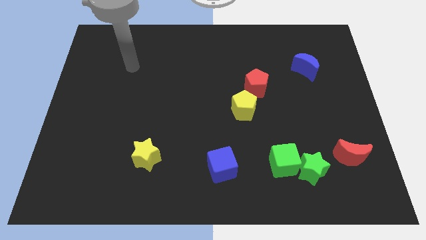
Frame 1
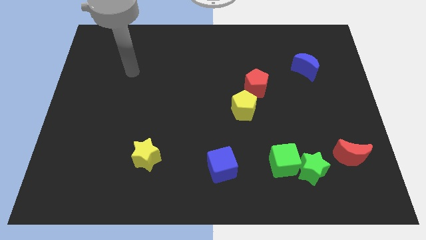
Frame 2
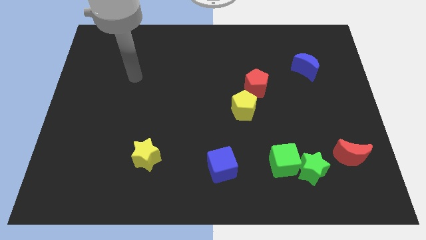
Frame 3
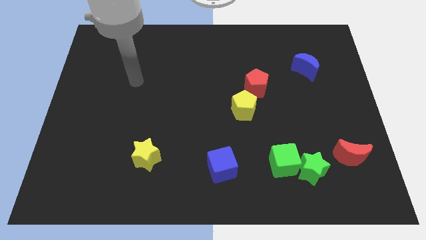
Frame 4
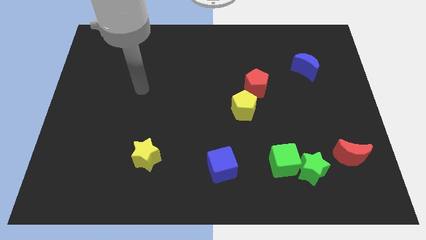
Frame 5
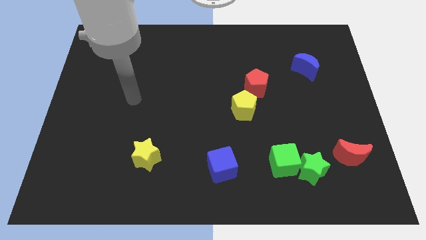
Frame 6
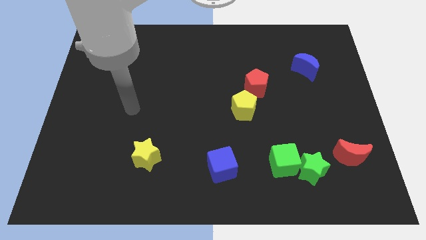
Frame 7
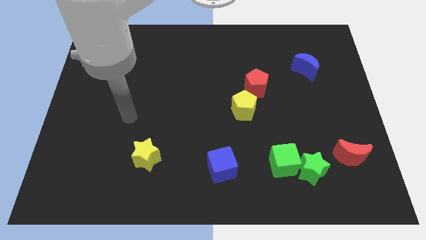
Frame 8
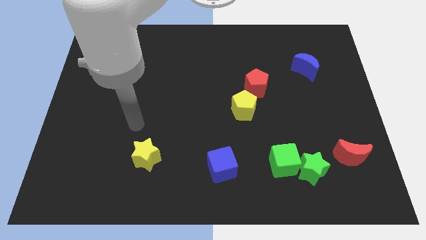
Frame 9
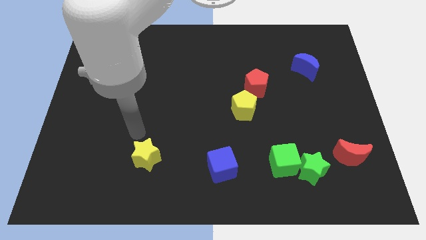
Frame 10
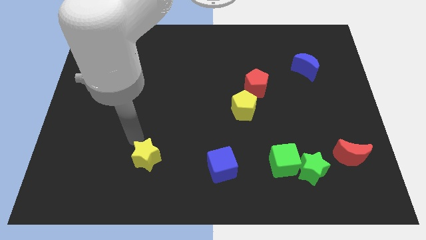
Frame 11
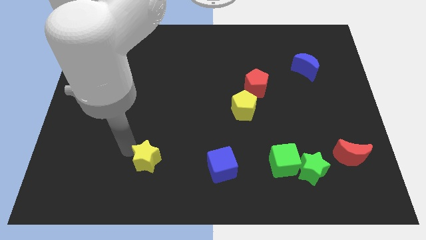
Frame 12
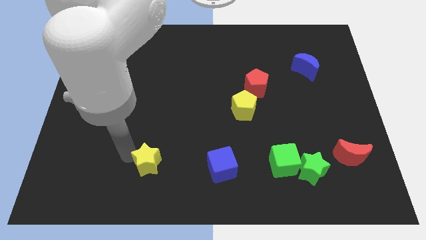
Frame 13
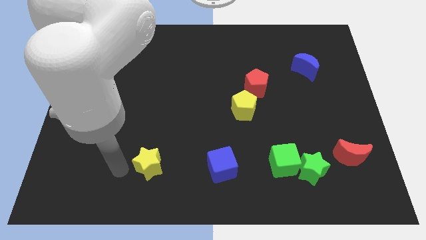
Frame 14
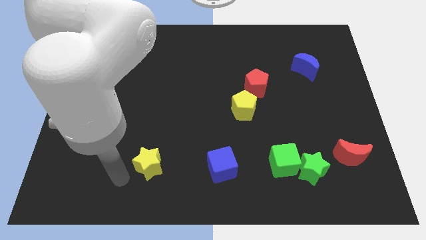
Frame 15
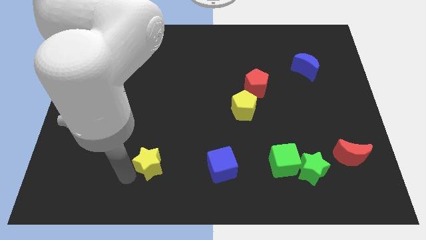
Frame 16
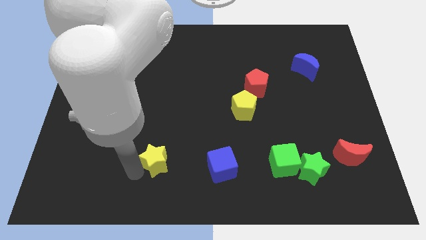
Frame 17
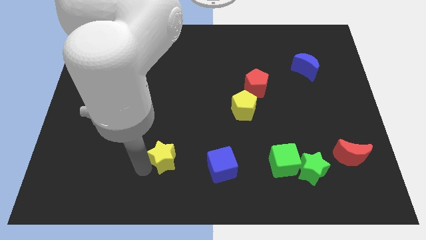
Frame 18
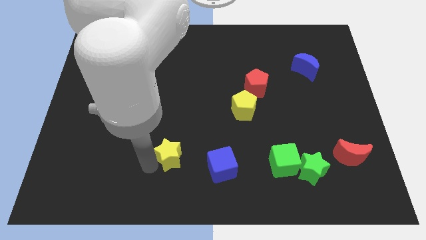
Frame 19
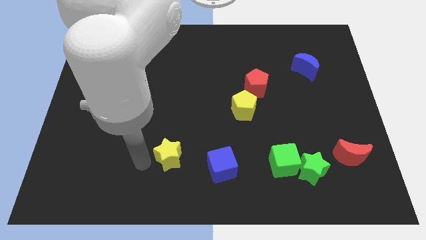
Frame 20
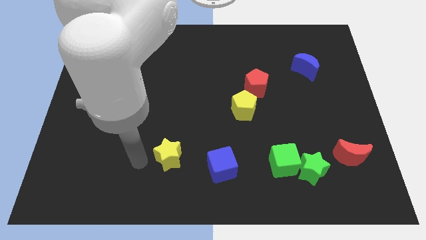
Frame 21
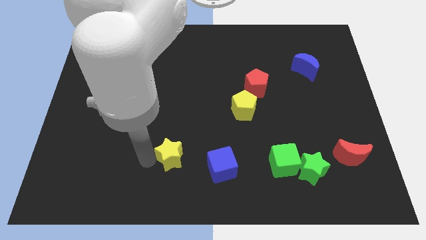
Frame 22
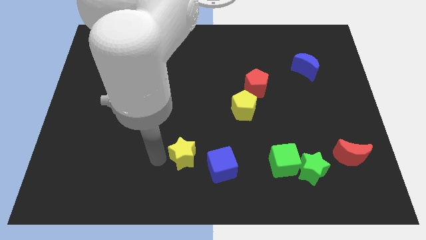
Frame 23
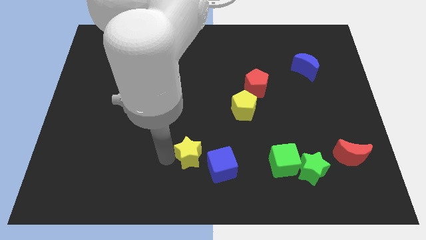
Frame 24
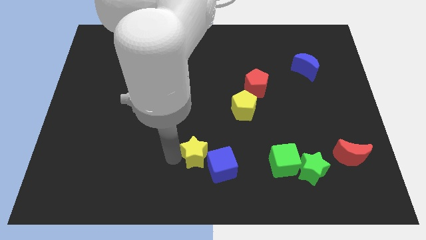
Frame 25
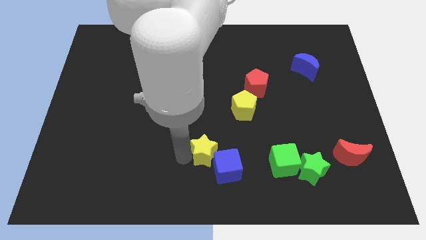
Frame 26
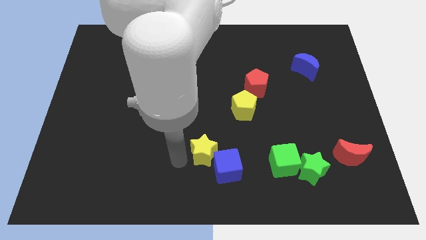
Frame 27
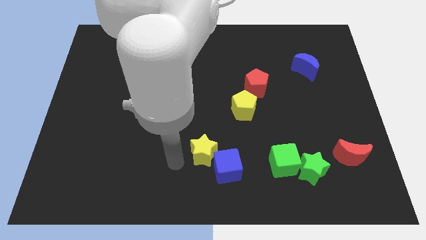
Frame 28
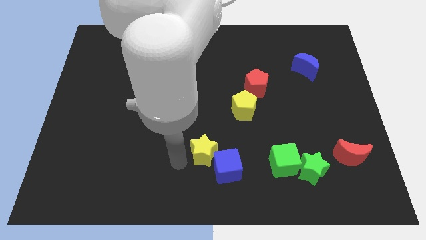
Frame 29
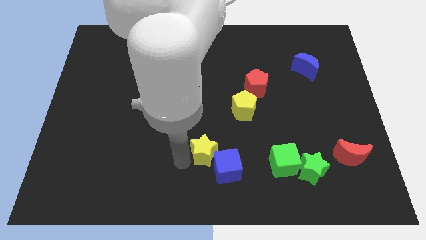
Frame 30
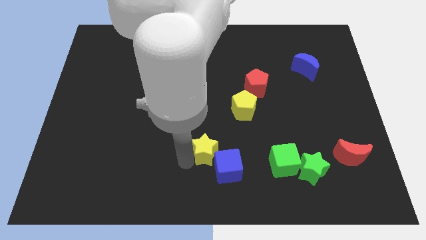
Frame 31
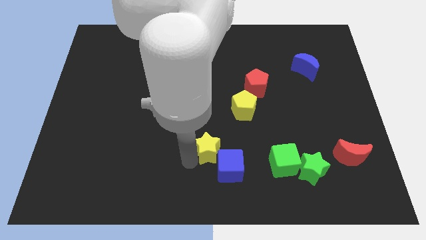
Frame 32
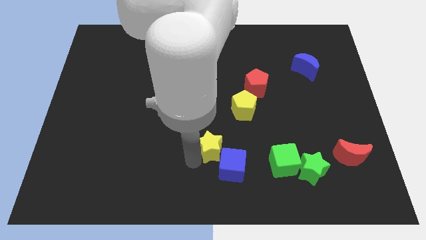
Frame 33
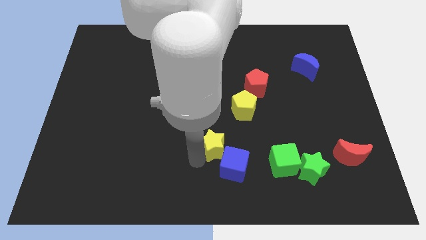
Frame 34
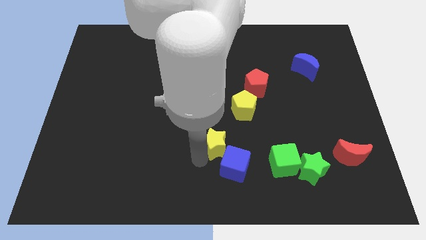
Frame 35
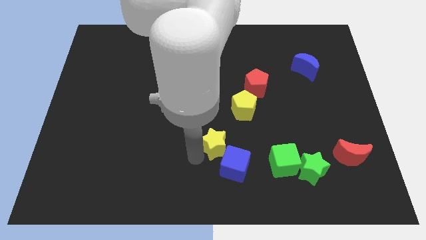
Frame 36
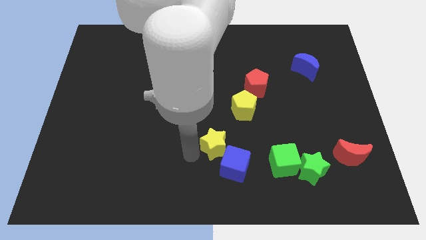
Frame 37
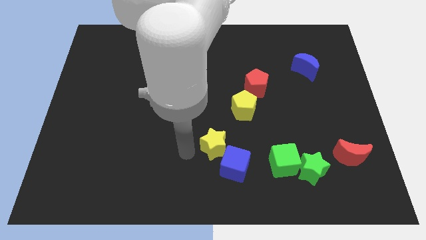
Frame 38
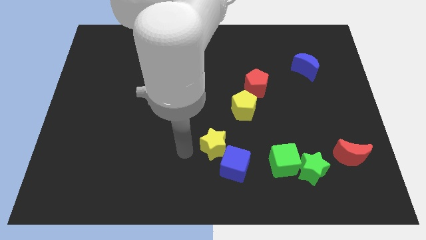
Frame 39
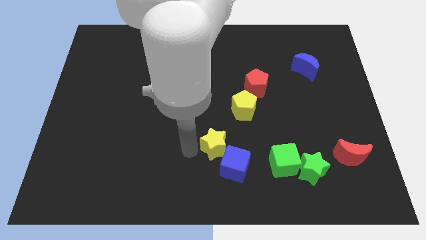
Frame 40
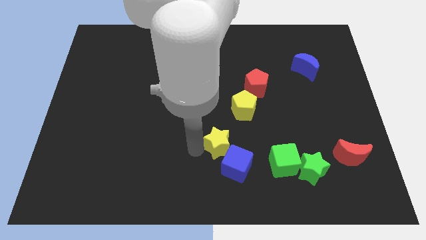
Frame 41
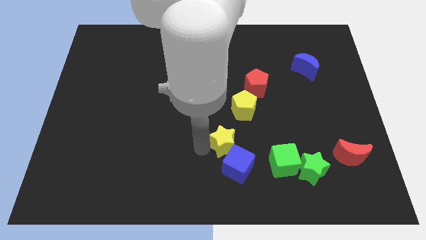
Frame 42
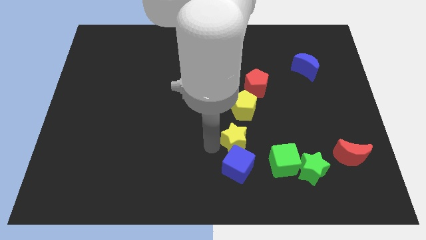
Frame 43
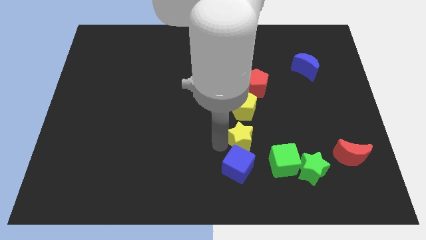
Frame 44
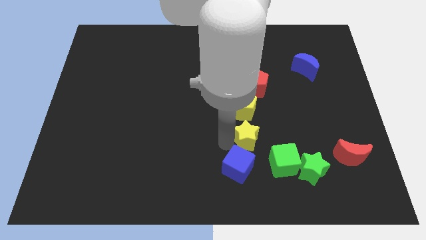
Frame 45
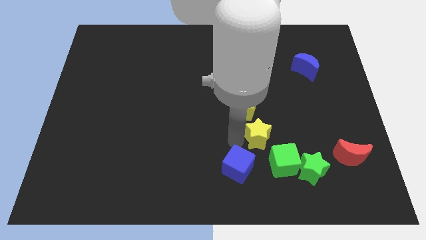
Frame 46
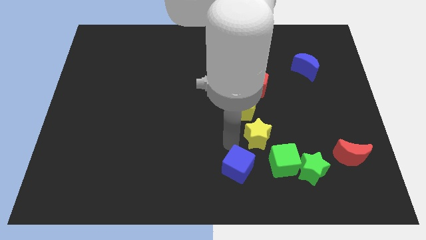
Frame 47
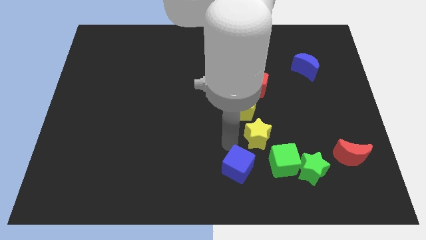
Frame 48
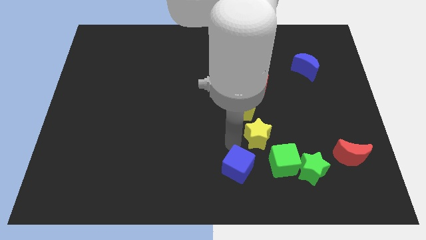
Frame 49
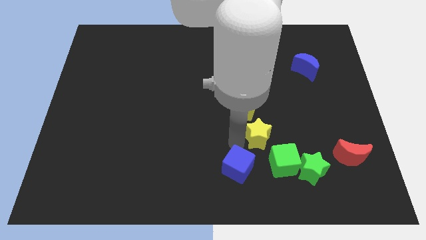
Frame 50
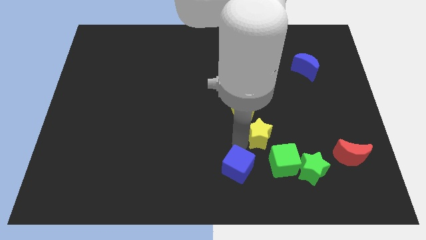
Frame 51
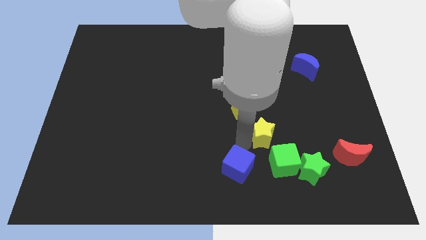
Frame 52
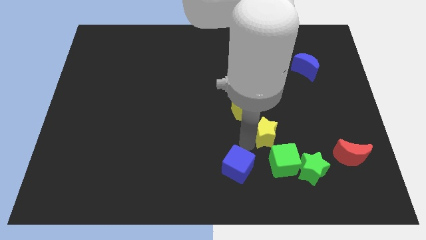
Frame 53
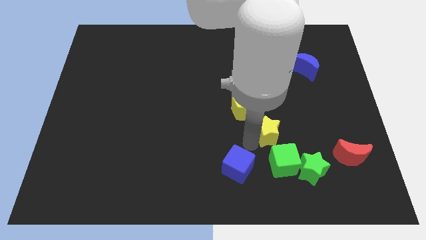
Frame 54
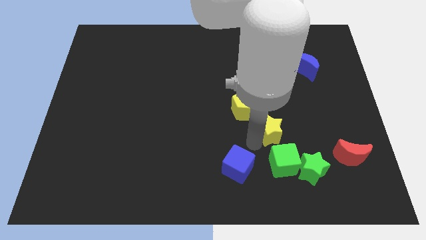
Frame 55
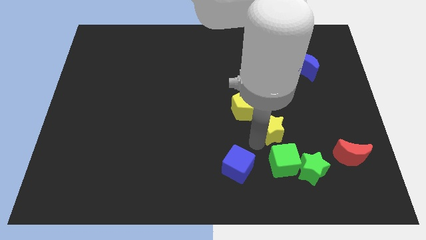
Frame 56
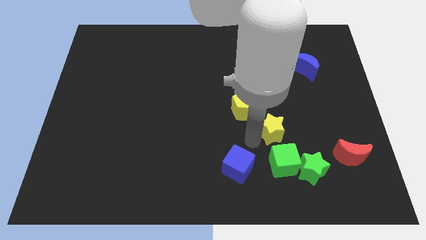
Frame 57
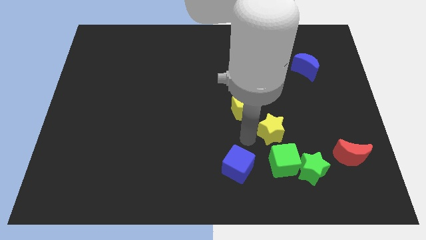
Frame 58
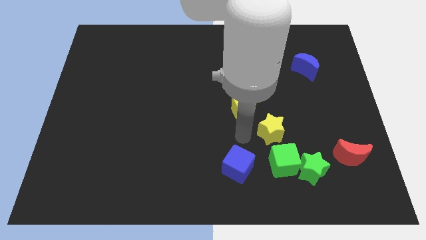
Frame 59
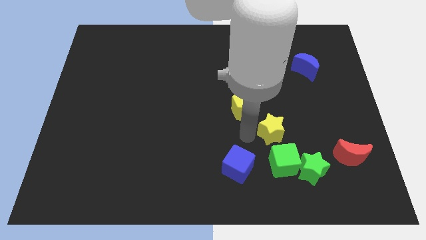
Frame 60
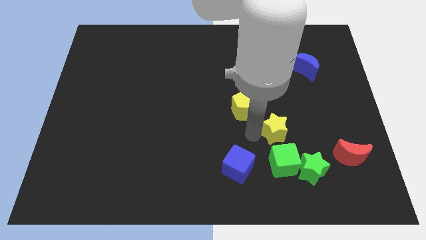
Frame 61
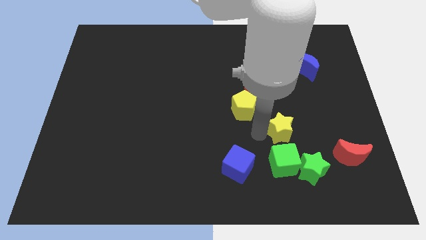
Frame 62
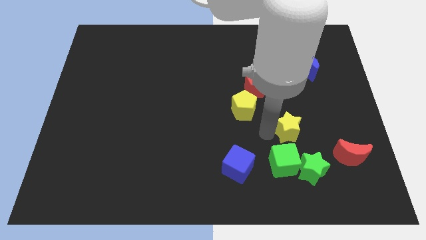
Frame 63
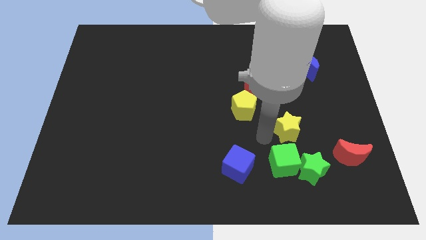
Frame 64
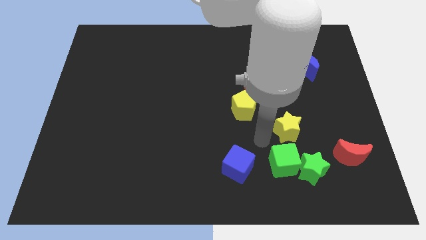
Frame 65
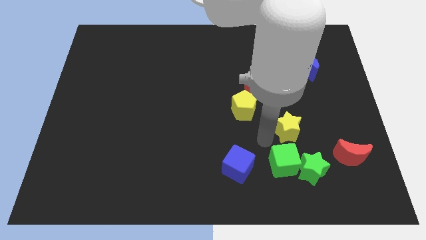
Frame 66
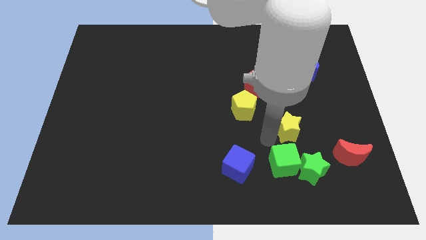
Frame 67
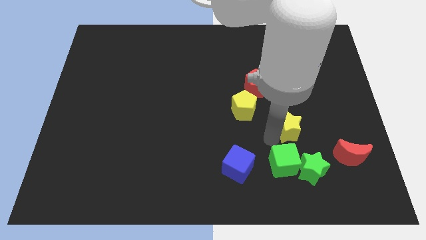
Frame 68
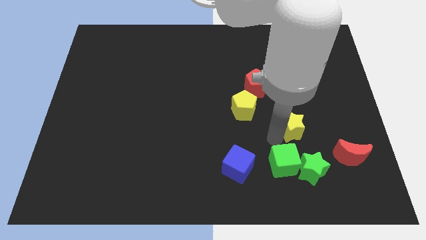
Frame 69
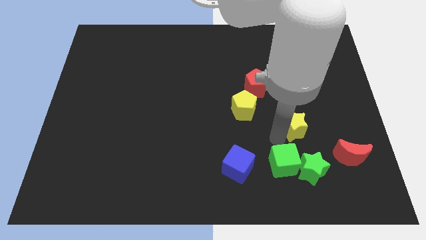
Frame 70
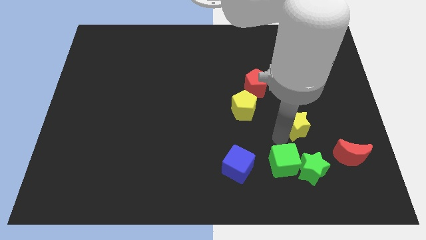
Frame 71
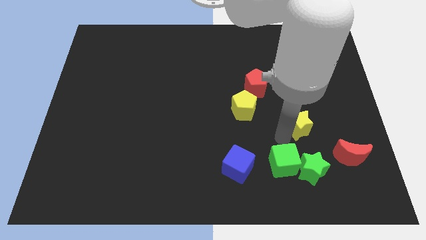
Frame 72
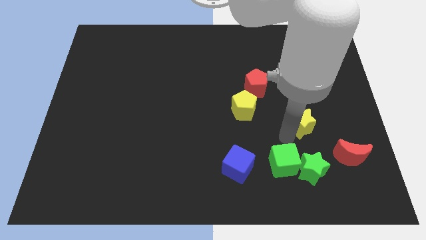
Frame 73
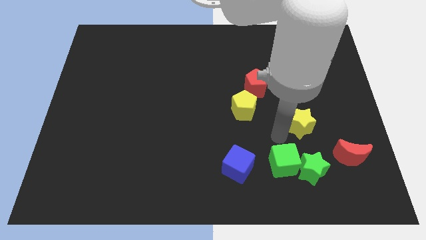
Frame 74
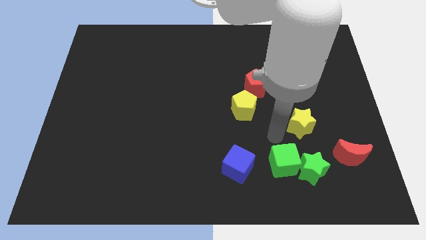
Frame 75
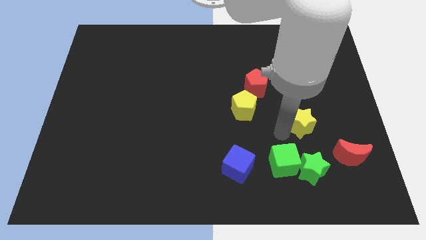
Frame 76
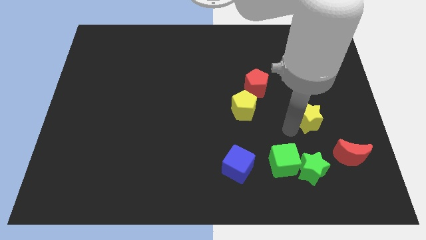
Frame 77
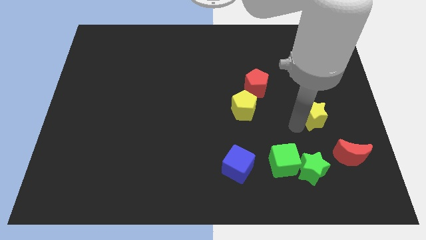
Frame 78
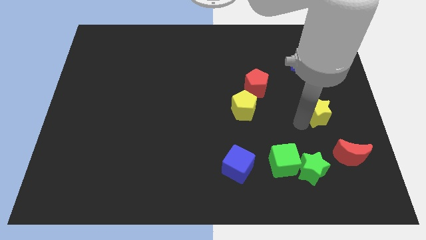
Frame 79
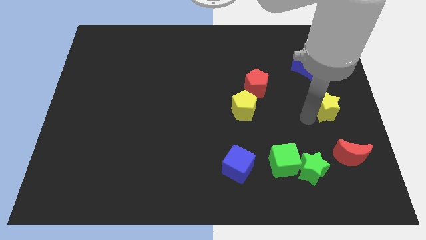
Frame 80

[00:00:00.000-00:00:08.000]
push the yellow star to the right side
